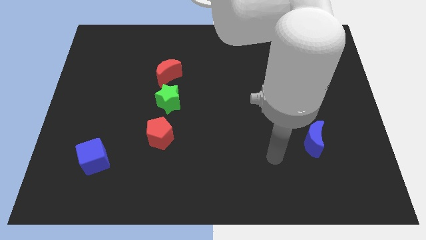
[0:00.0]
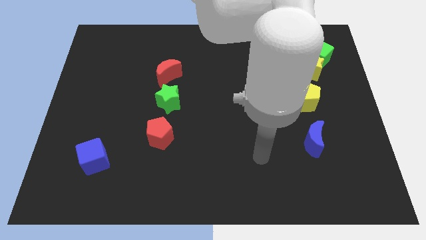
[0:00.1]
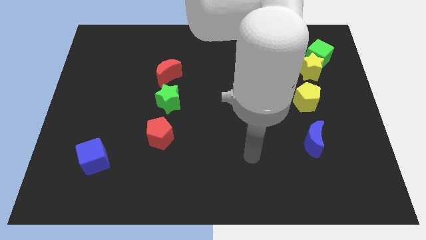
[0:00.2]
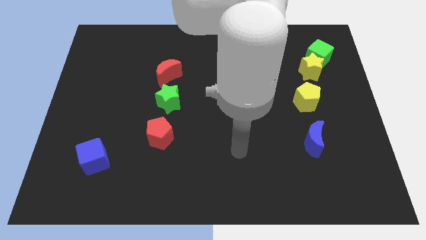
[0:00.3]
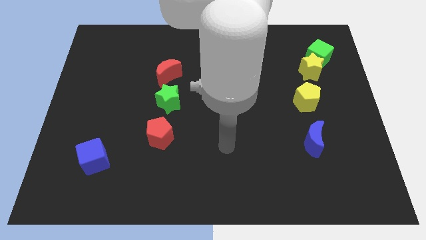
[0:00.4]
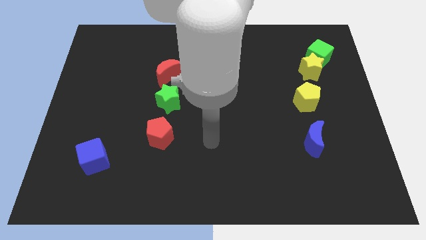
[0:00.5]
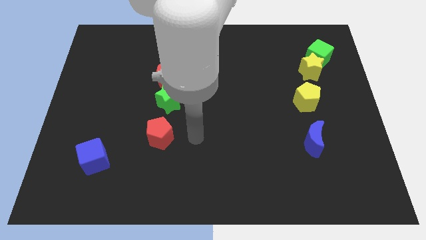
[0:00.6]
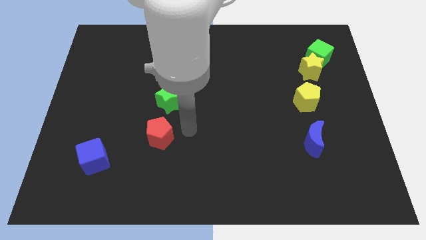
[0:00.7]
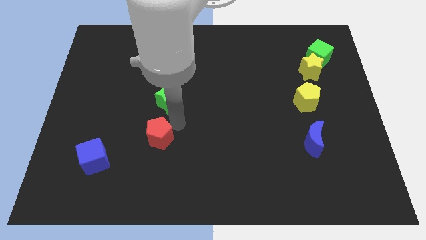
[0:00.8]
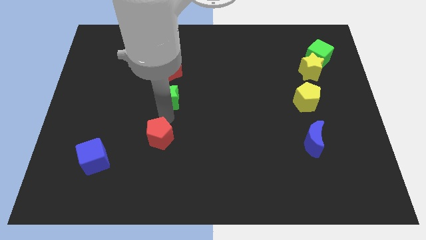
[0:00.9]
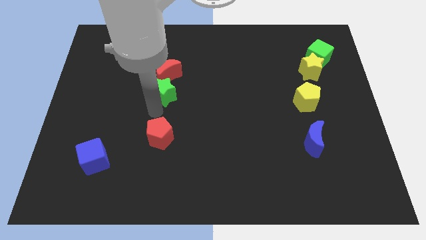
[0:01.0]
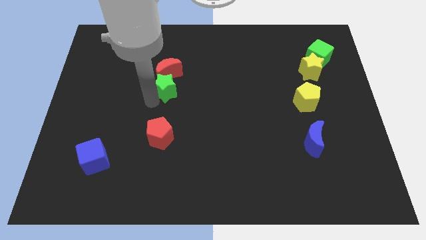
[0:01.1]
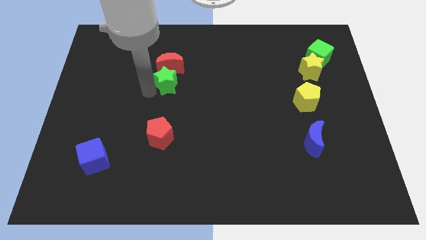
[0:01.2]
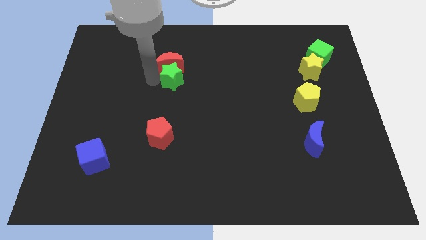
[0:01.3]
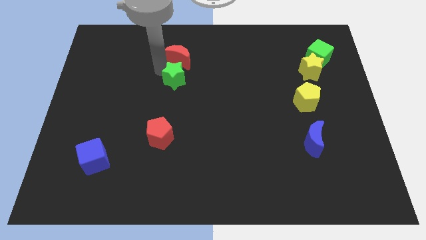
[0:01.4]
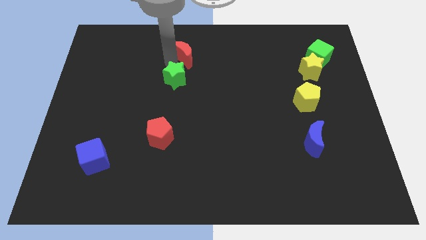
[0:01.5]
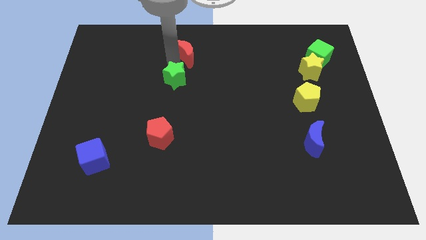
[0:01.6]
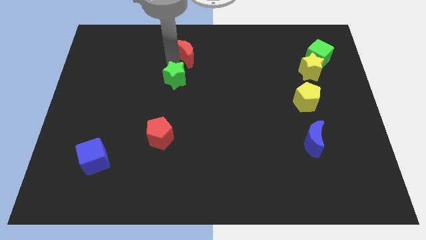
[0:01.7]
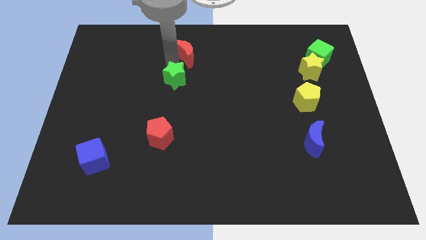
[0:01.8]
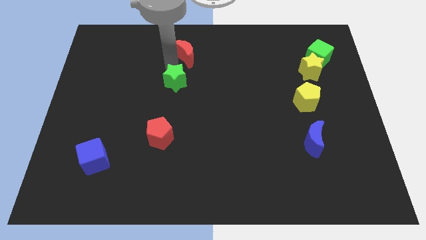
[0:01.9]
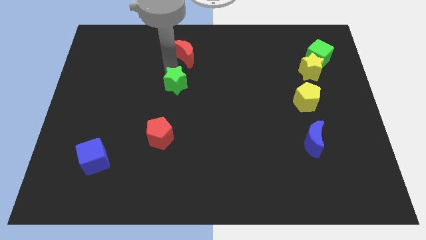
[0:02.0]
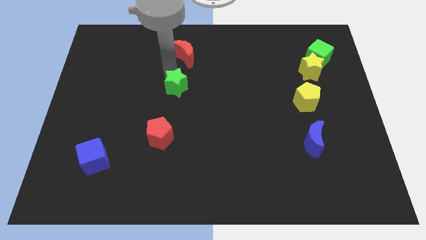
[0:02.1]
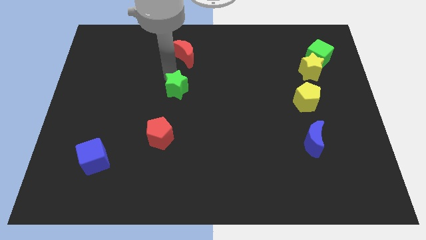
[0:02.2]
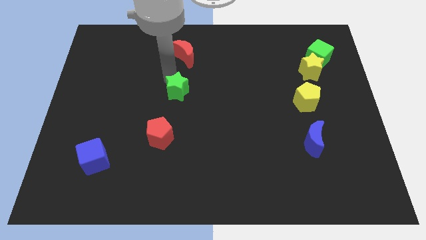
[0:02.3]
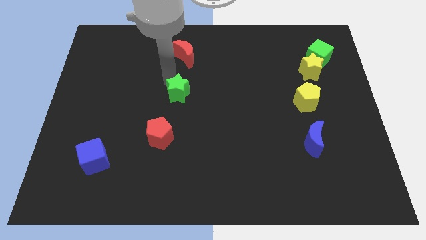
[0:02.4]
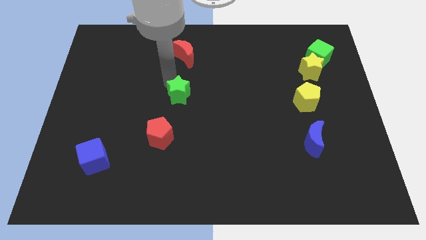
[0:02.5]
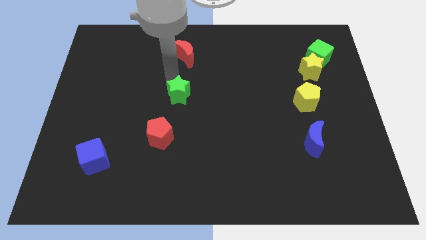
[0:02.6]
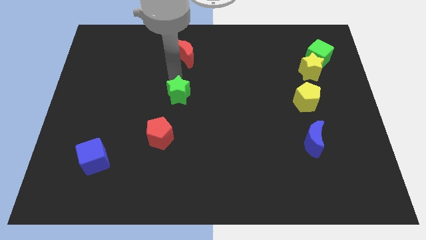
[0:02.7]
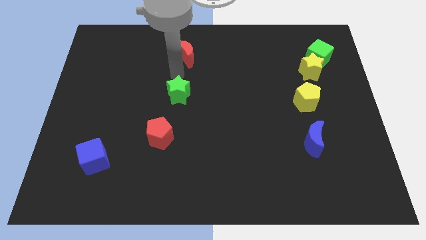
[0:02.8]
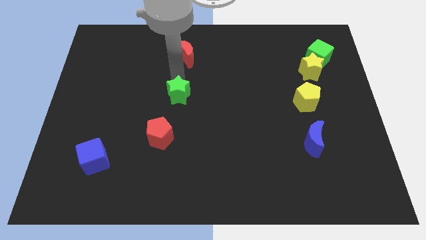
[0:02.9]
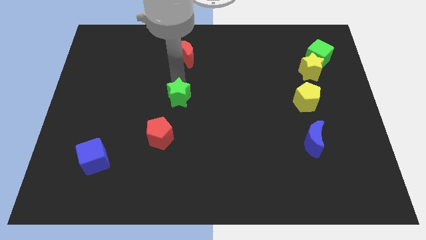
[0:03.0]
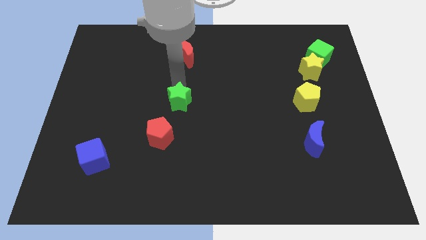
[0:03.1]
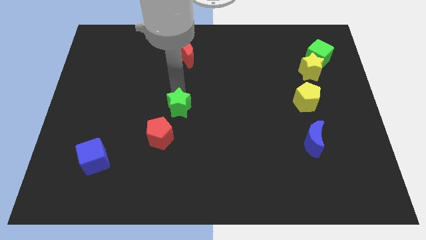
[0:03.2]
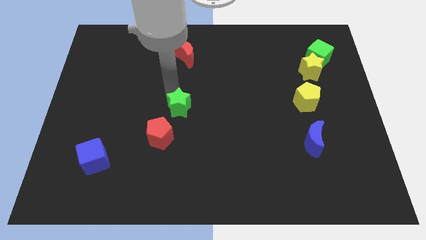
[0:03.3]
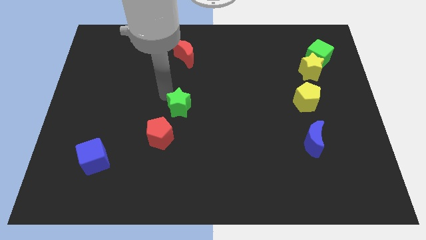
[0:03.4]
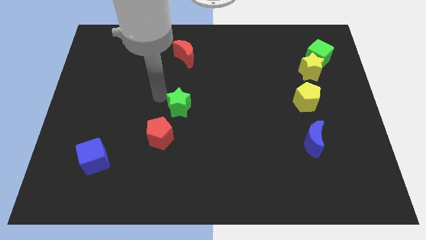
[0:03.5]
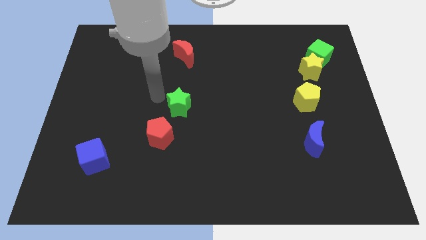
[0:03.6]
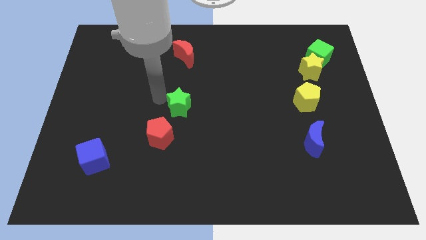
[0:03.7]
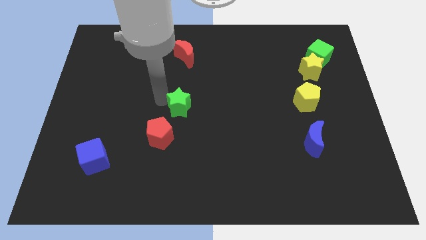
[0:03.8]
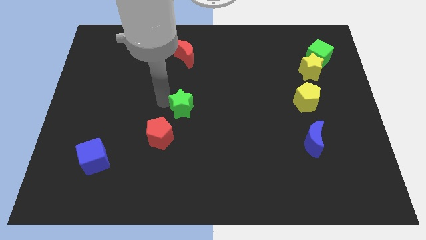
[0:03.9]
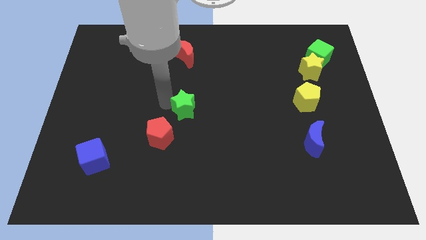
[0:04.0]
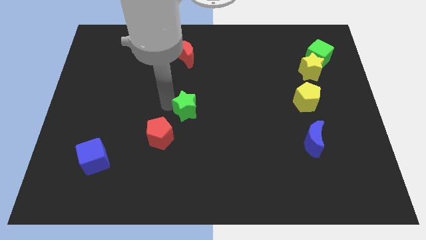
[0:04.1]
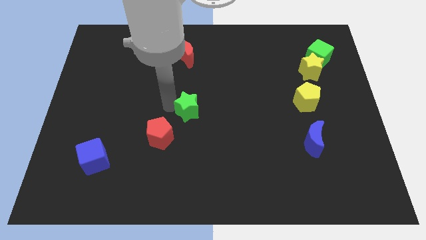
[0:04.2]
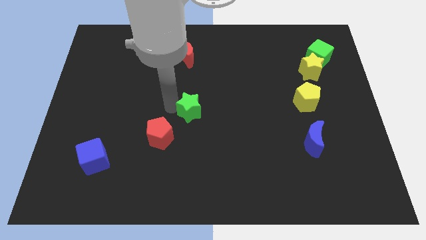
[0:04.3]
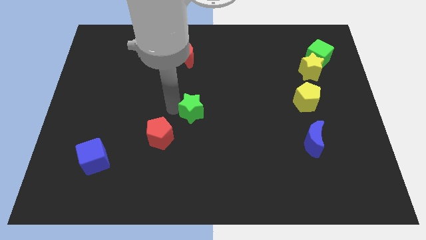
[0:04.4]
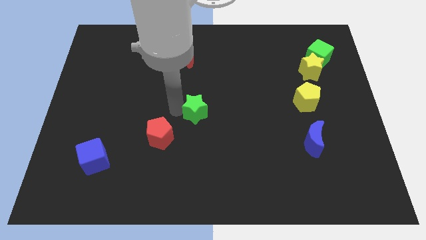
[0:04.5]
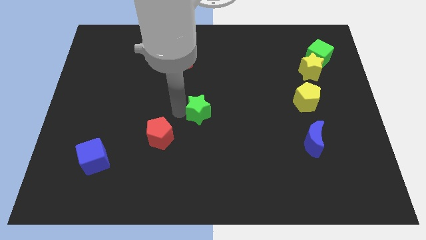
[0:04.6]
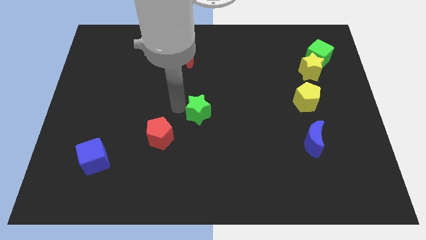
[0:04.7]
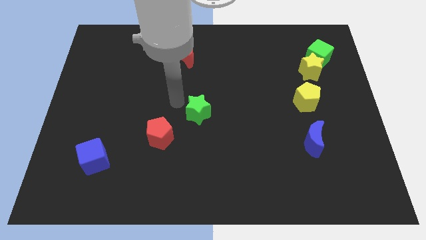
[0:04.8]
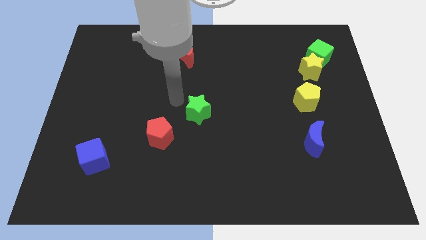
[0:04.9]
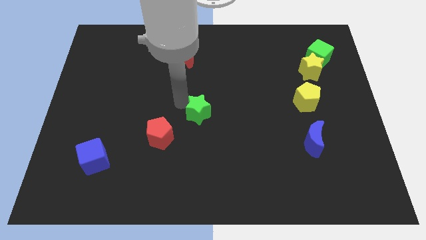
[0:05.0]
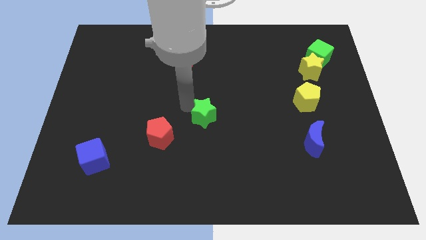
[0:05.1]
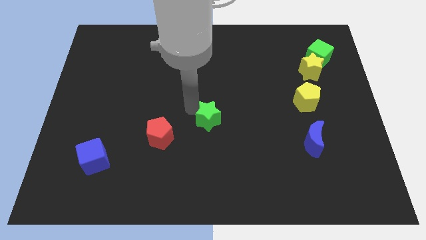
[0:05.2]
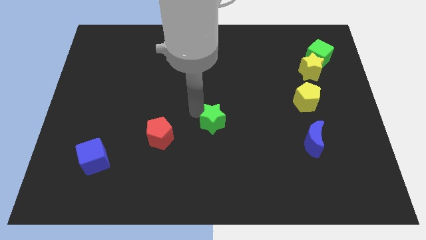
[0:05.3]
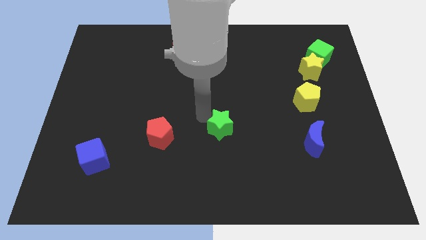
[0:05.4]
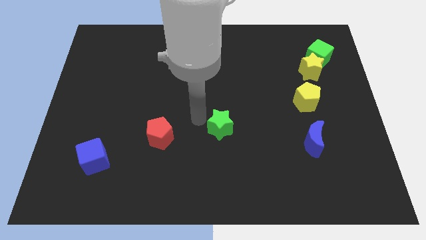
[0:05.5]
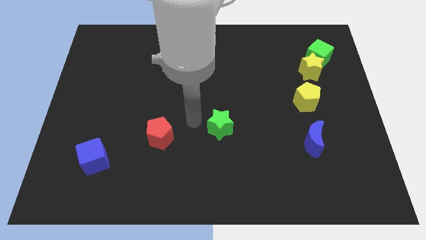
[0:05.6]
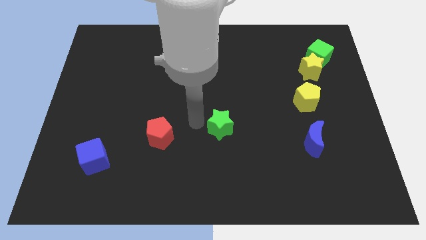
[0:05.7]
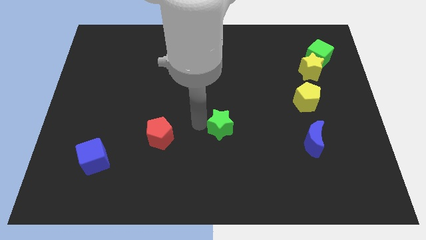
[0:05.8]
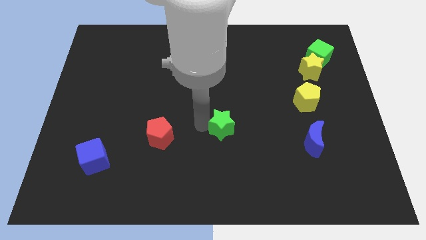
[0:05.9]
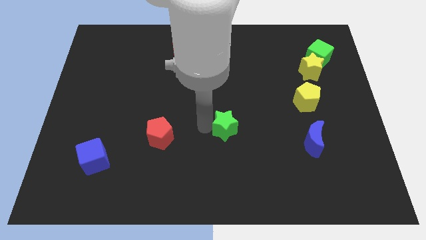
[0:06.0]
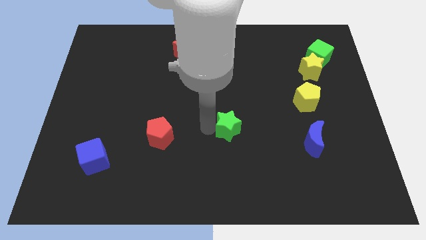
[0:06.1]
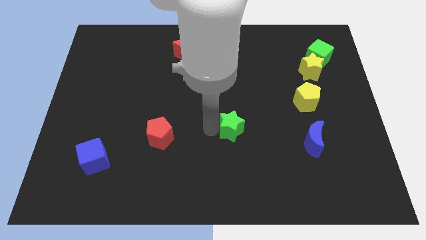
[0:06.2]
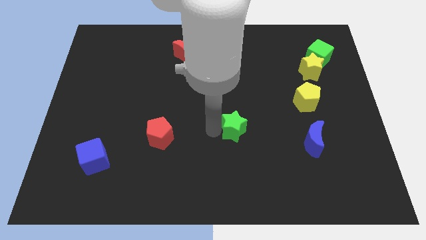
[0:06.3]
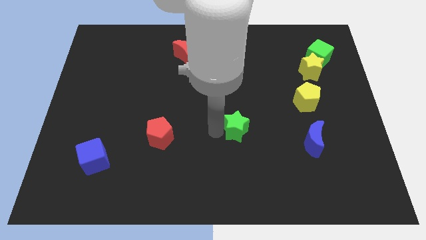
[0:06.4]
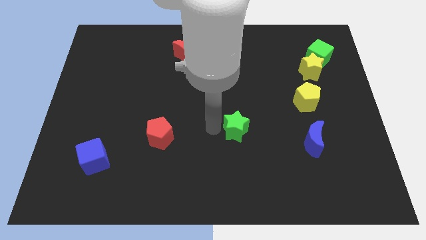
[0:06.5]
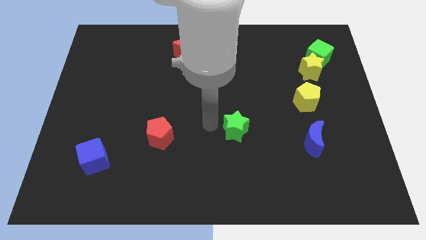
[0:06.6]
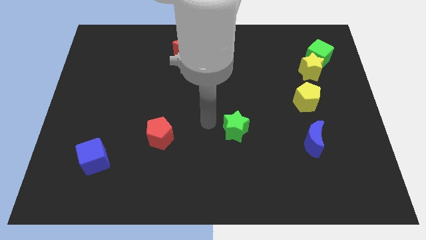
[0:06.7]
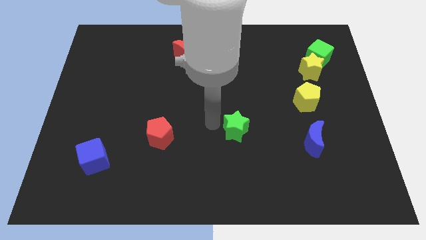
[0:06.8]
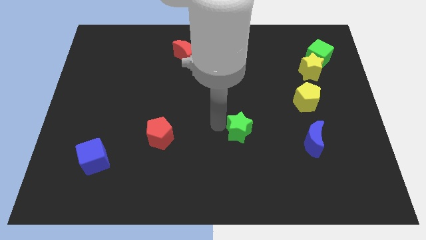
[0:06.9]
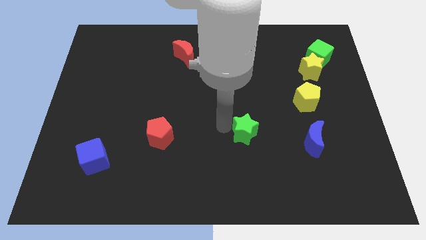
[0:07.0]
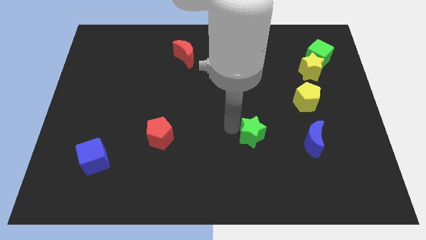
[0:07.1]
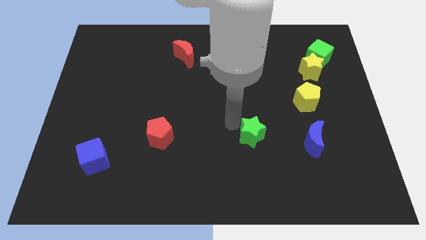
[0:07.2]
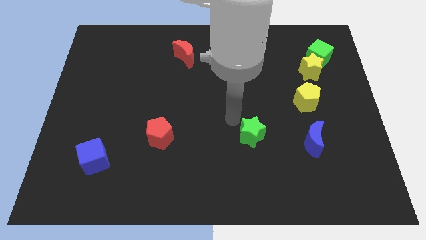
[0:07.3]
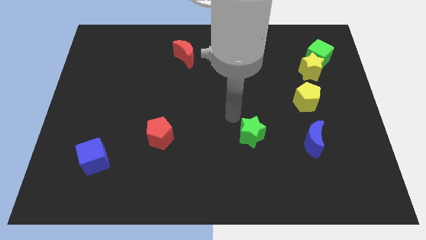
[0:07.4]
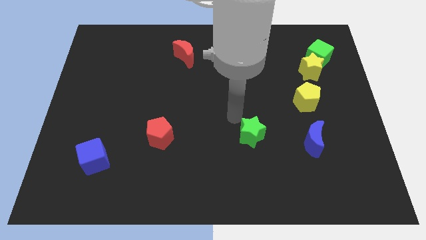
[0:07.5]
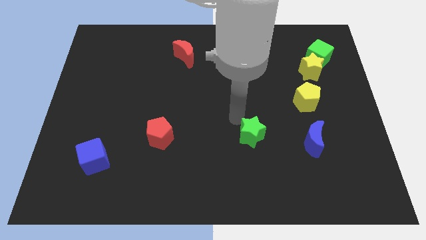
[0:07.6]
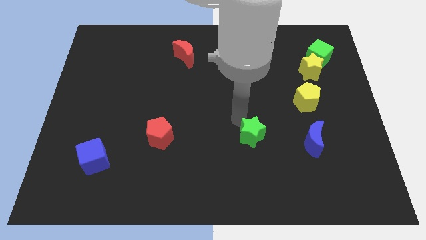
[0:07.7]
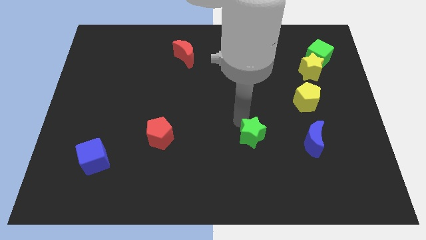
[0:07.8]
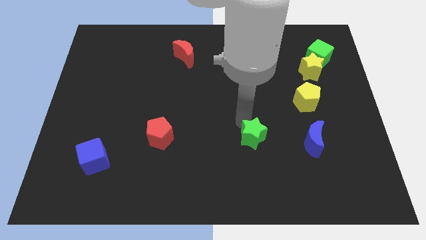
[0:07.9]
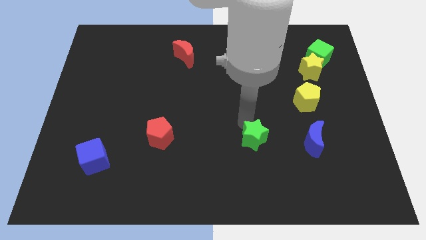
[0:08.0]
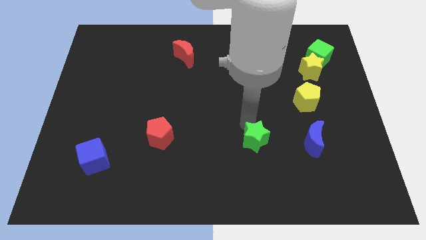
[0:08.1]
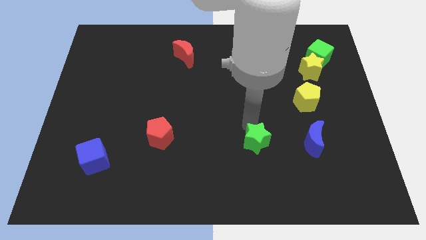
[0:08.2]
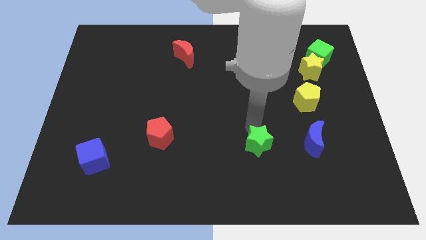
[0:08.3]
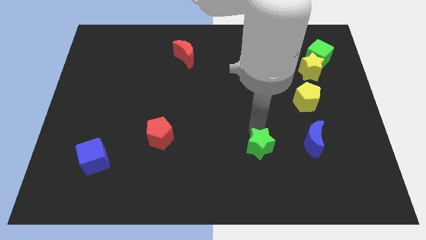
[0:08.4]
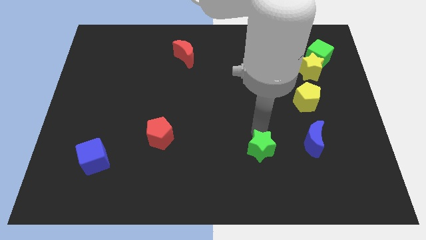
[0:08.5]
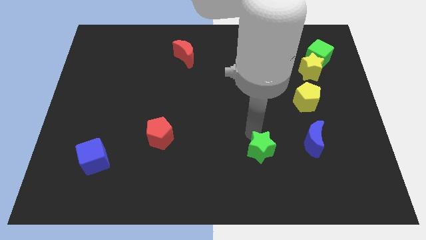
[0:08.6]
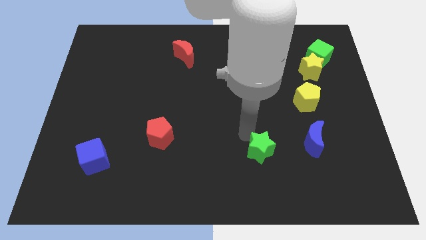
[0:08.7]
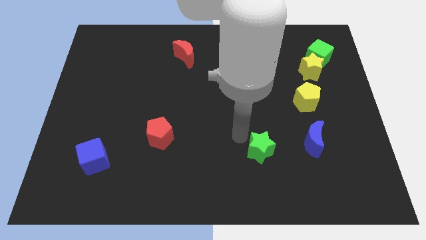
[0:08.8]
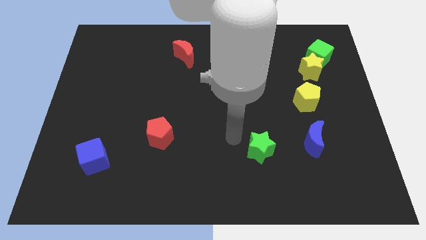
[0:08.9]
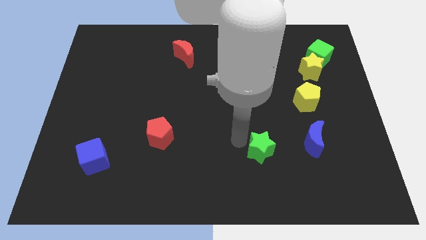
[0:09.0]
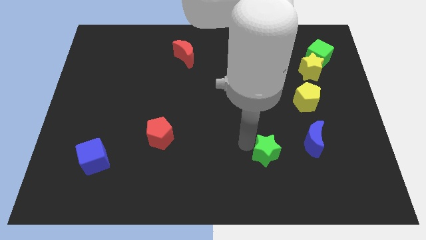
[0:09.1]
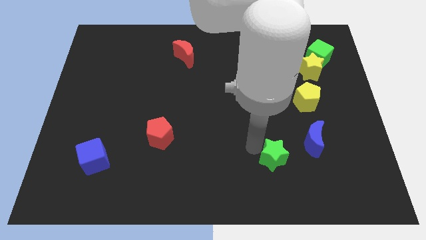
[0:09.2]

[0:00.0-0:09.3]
move the green star to the bottom left of the blue moon
